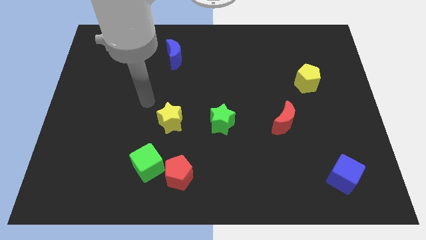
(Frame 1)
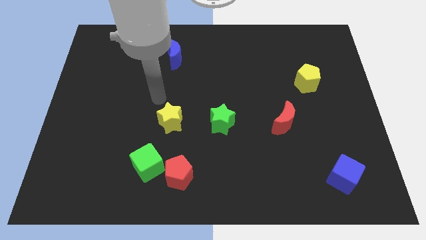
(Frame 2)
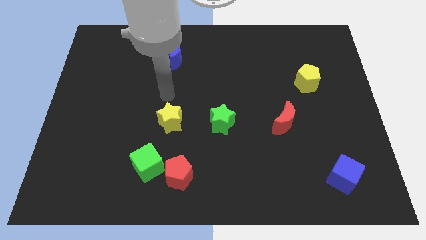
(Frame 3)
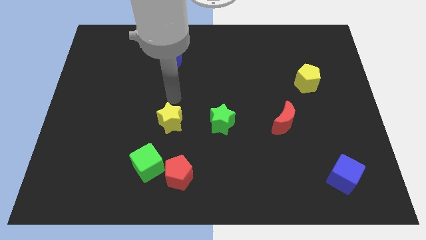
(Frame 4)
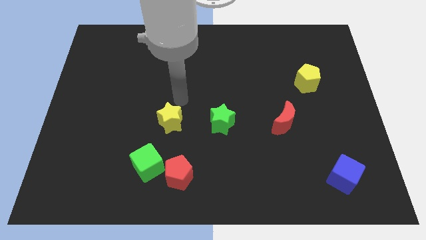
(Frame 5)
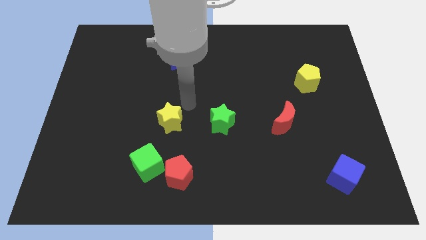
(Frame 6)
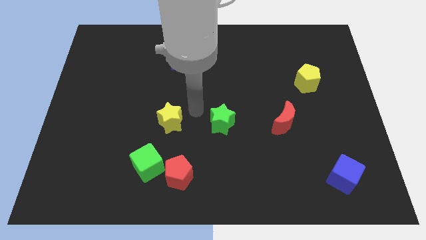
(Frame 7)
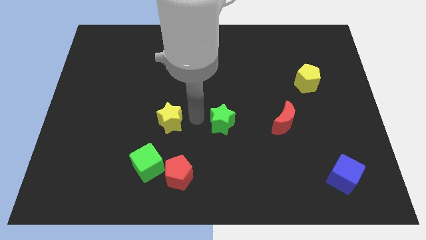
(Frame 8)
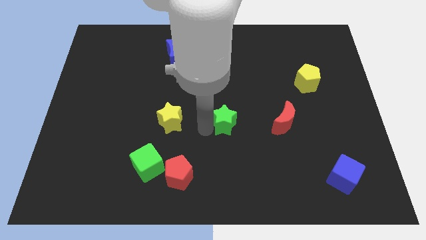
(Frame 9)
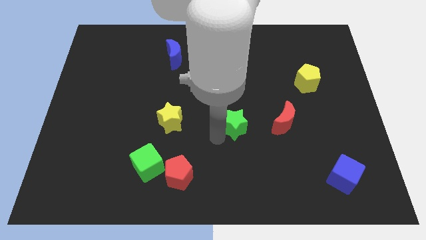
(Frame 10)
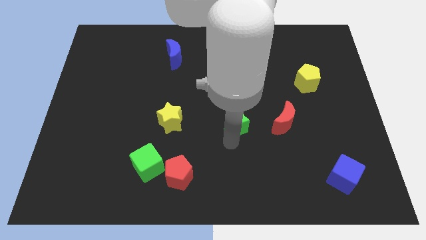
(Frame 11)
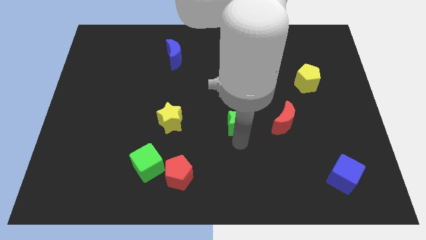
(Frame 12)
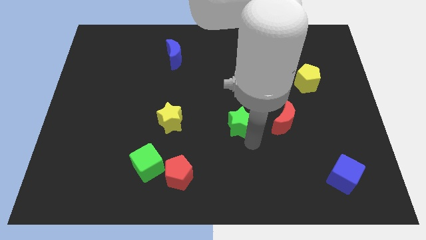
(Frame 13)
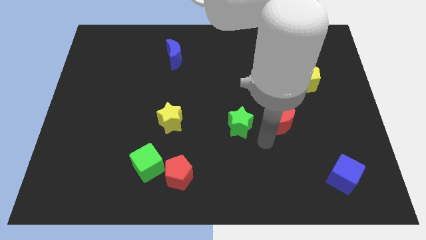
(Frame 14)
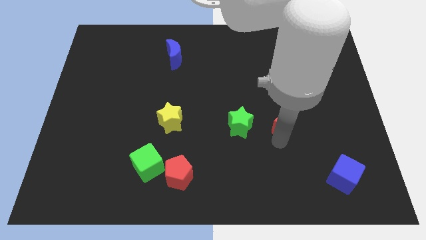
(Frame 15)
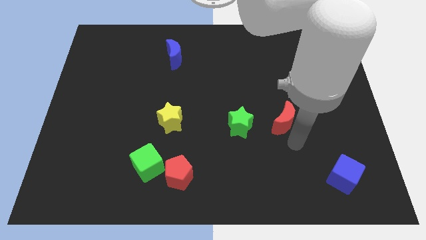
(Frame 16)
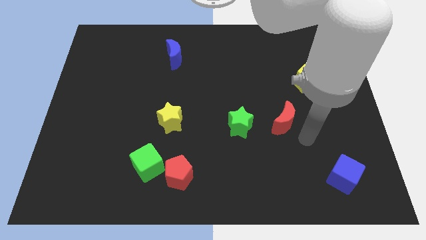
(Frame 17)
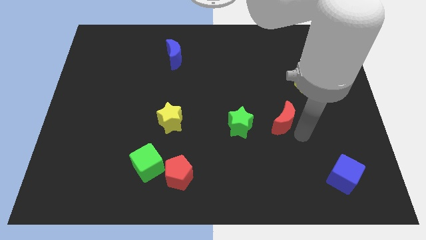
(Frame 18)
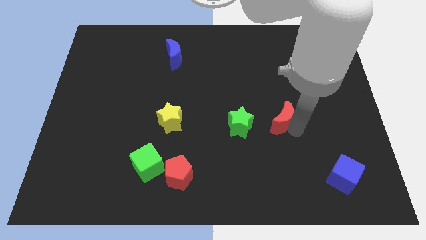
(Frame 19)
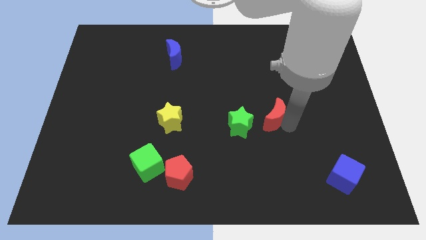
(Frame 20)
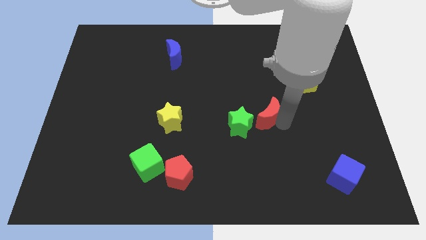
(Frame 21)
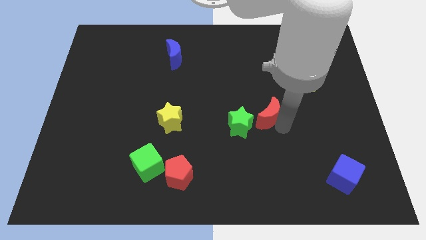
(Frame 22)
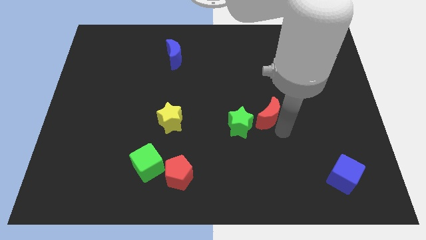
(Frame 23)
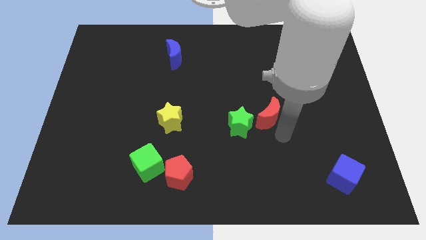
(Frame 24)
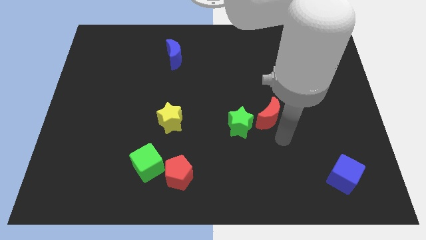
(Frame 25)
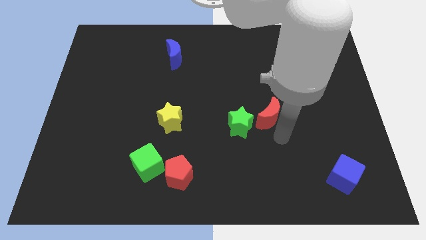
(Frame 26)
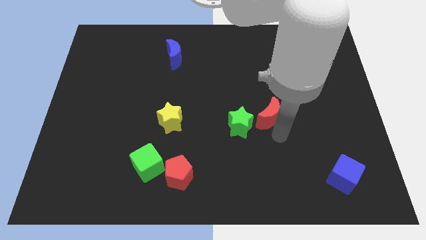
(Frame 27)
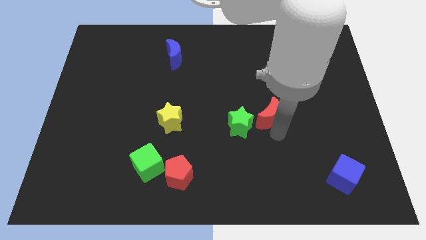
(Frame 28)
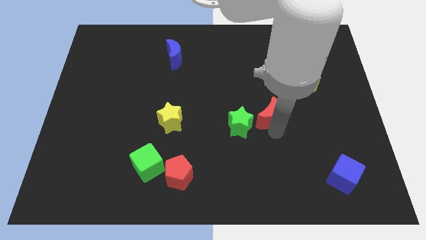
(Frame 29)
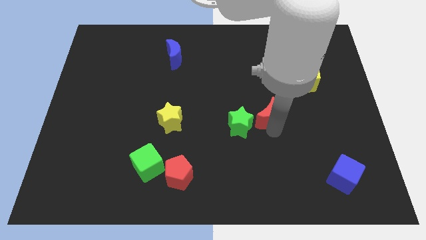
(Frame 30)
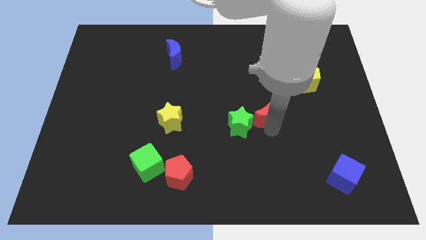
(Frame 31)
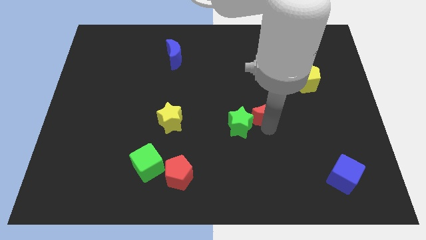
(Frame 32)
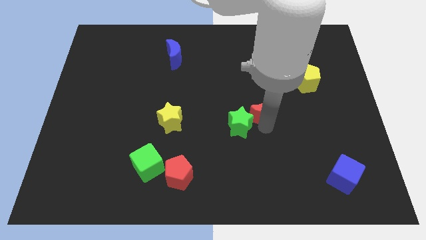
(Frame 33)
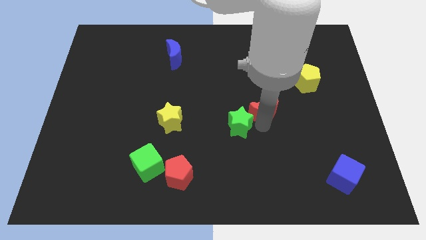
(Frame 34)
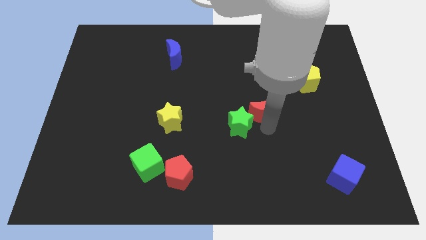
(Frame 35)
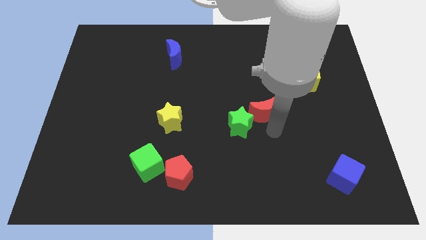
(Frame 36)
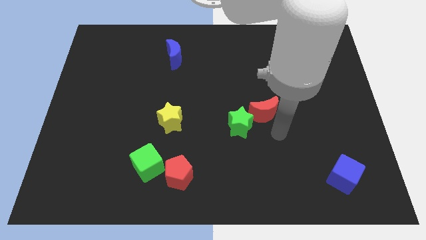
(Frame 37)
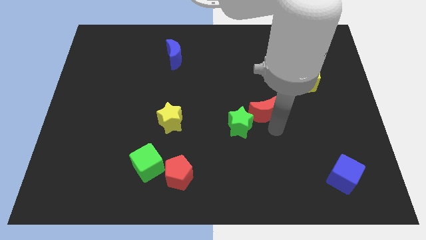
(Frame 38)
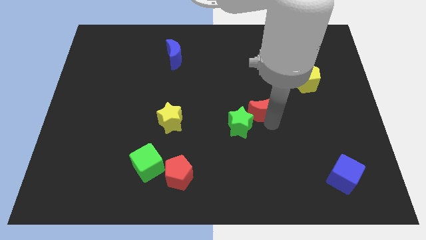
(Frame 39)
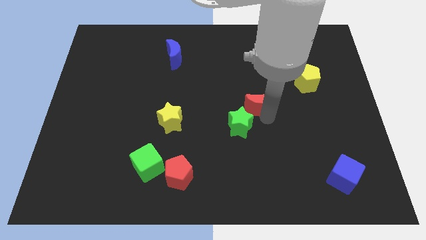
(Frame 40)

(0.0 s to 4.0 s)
slide the red moon upwards and to the left diagonally a bit

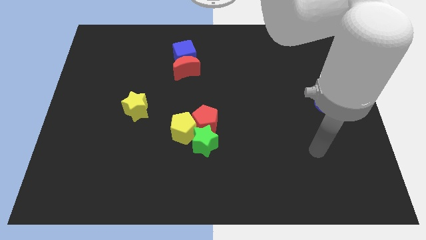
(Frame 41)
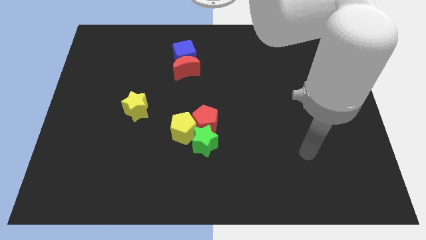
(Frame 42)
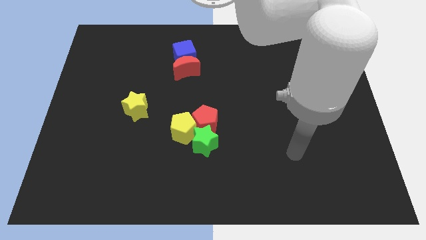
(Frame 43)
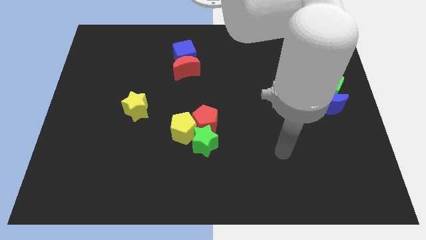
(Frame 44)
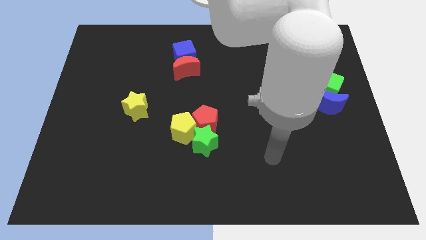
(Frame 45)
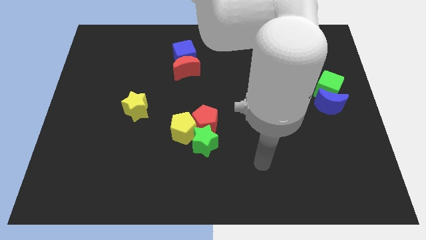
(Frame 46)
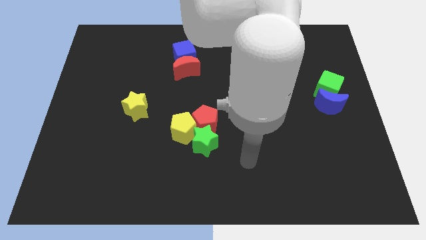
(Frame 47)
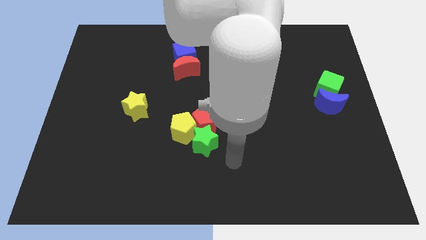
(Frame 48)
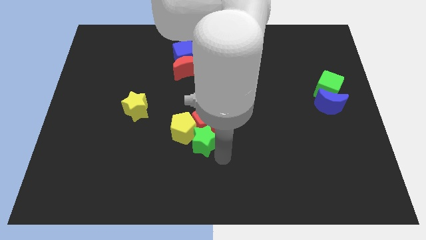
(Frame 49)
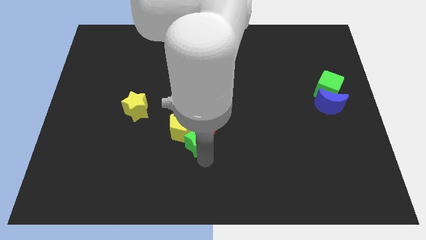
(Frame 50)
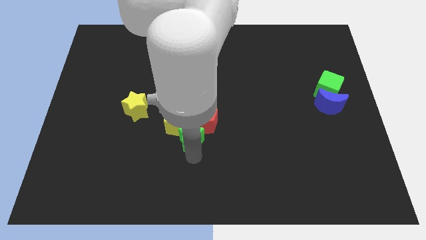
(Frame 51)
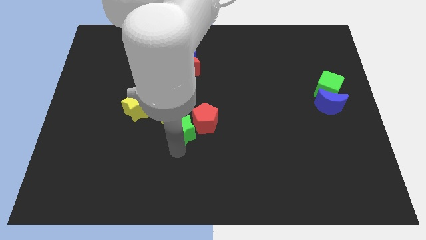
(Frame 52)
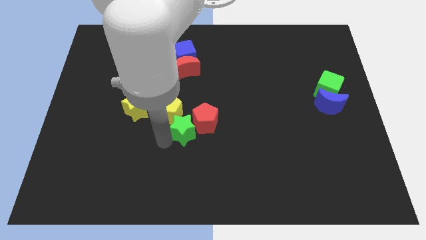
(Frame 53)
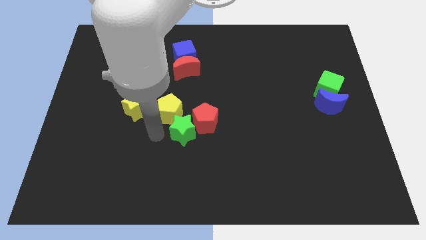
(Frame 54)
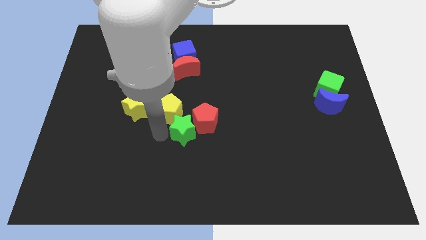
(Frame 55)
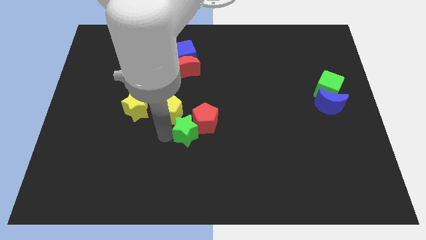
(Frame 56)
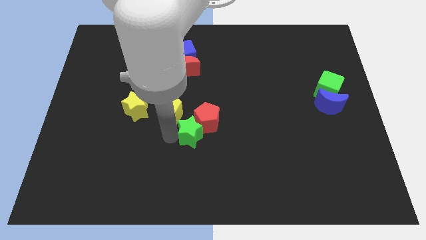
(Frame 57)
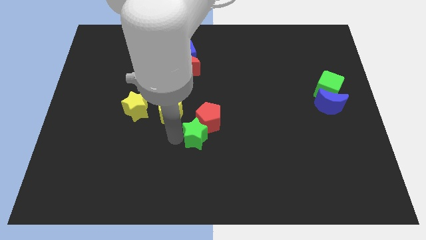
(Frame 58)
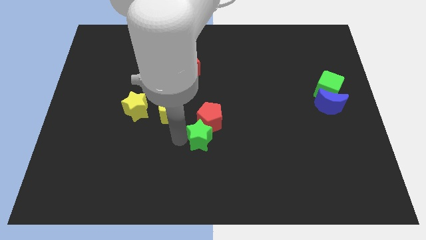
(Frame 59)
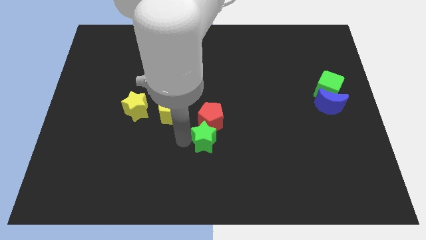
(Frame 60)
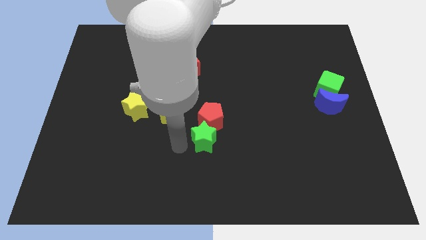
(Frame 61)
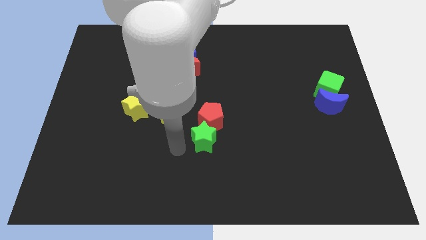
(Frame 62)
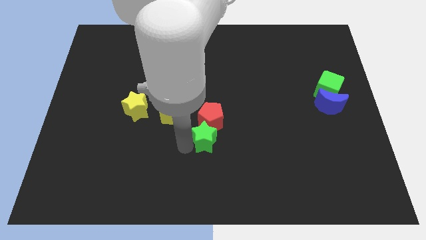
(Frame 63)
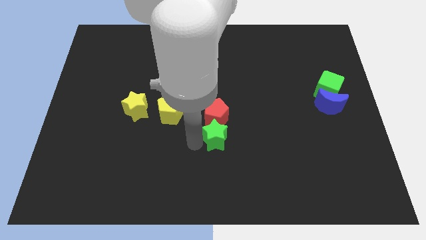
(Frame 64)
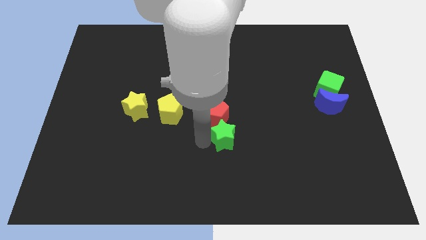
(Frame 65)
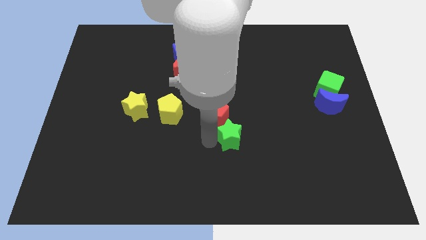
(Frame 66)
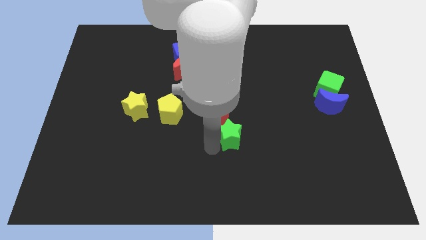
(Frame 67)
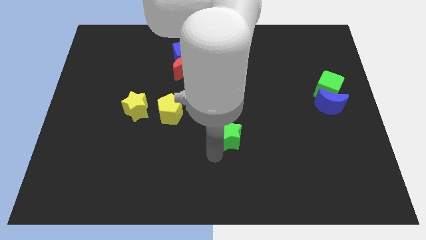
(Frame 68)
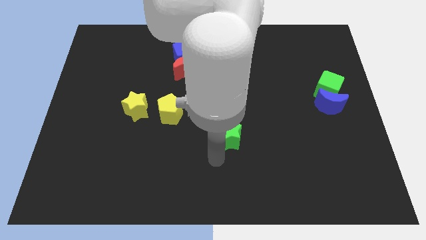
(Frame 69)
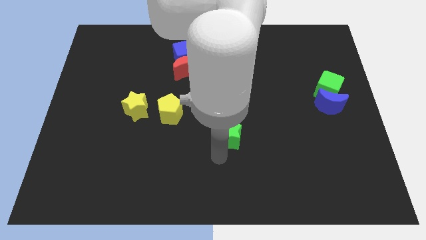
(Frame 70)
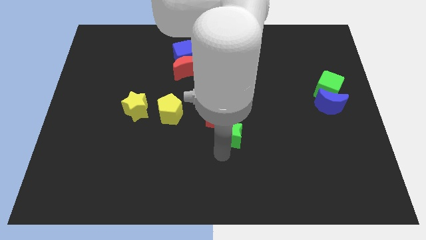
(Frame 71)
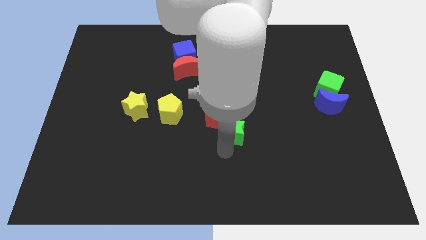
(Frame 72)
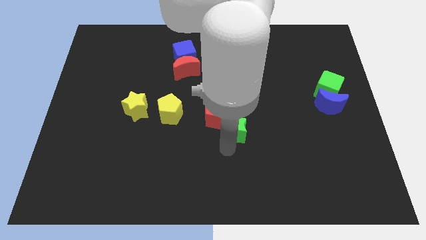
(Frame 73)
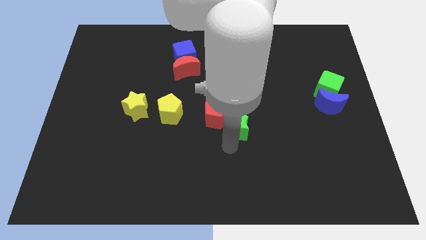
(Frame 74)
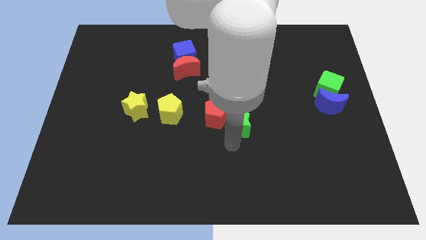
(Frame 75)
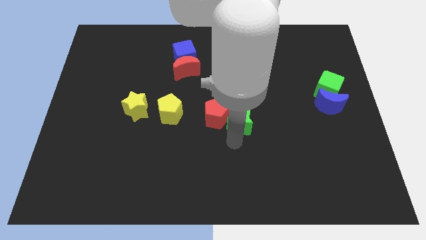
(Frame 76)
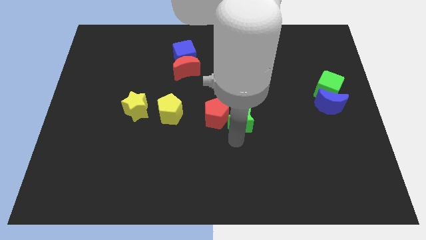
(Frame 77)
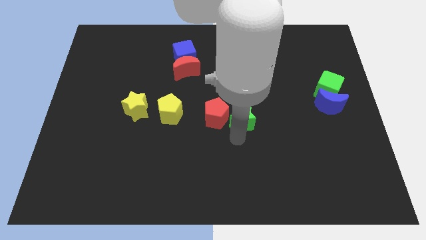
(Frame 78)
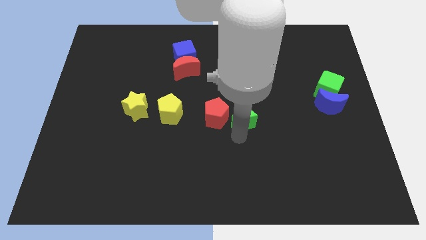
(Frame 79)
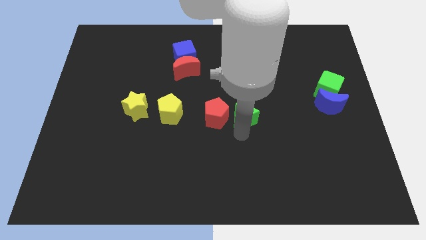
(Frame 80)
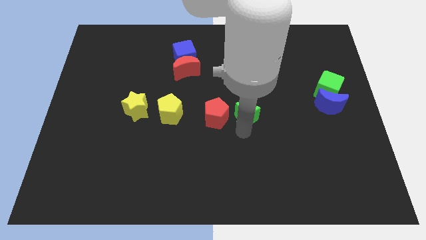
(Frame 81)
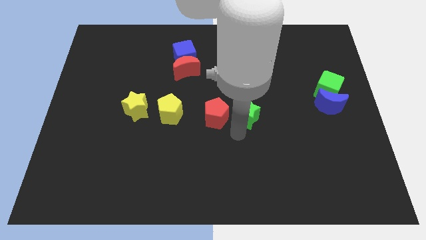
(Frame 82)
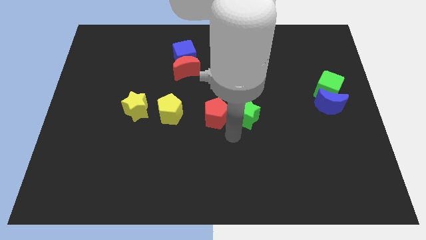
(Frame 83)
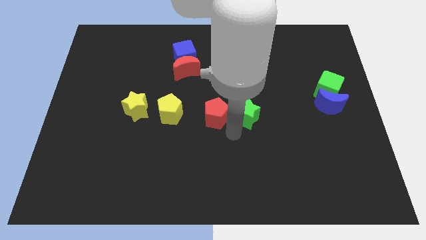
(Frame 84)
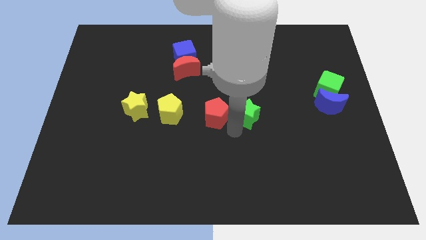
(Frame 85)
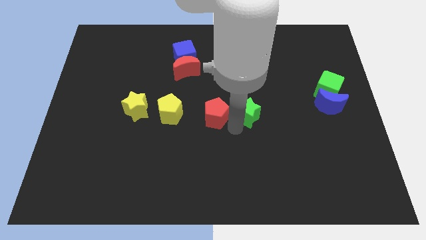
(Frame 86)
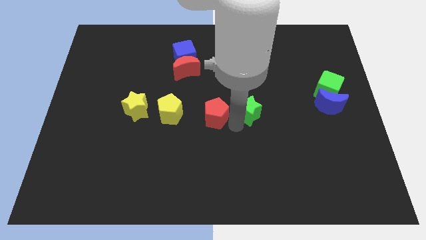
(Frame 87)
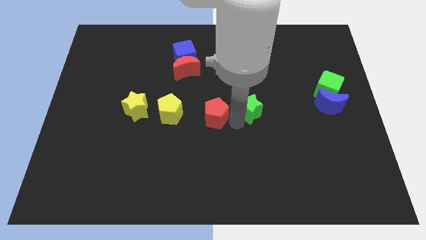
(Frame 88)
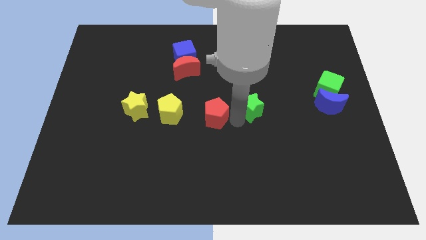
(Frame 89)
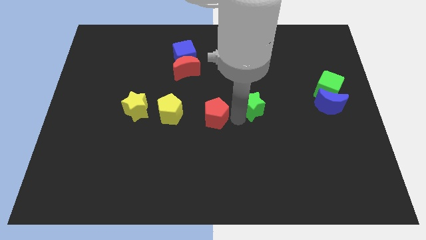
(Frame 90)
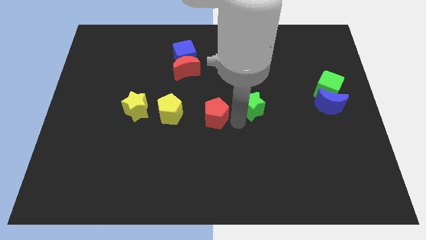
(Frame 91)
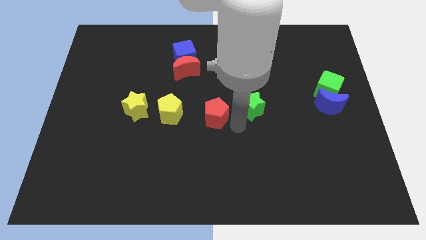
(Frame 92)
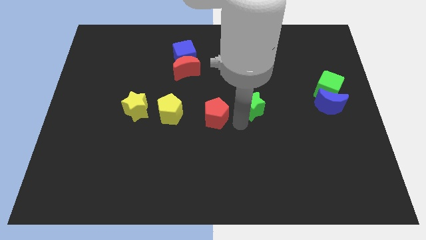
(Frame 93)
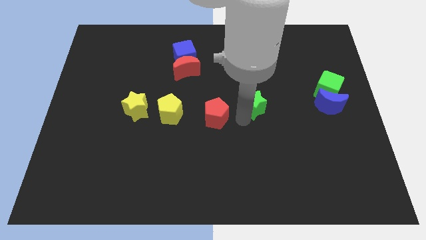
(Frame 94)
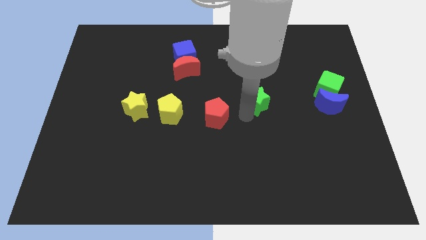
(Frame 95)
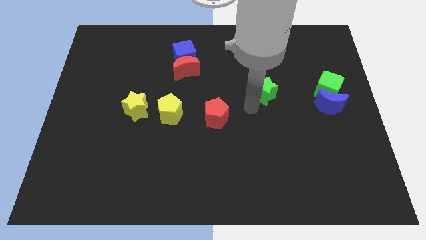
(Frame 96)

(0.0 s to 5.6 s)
slide the green star diagonally upwards and right
